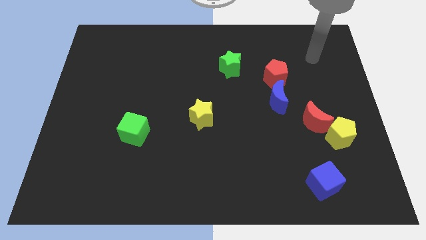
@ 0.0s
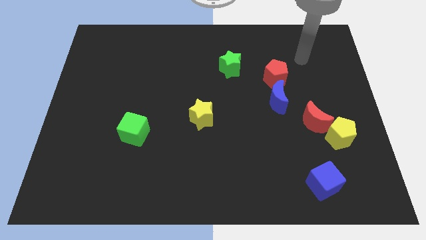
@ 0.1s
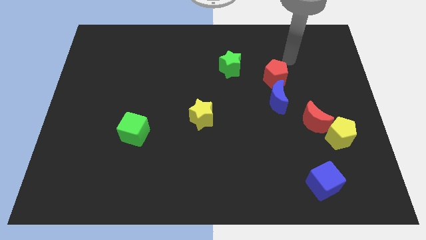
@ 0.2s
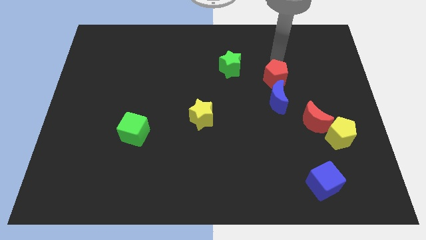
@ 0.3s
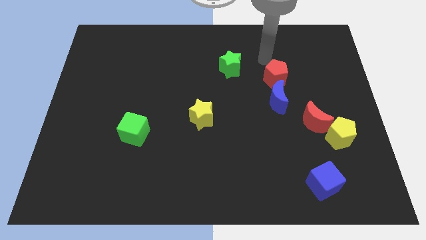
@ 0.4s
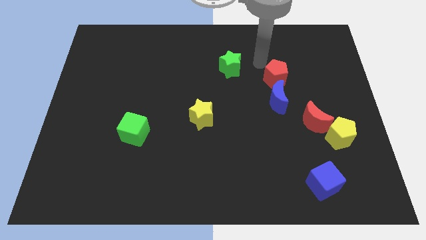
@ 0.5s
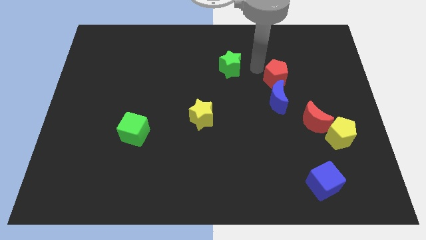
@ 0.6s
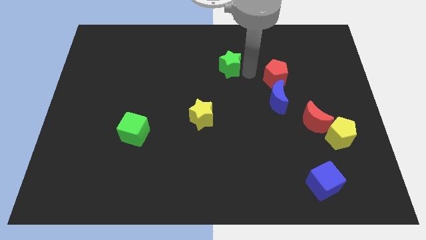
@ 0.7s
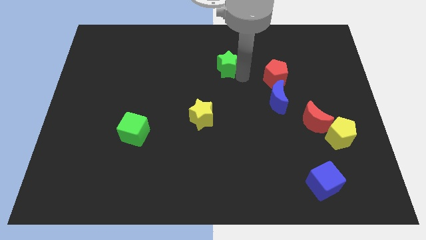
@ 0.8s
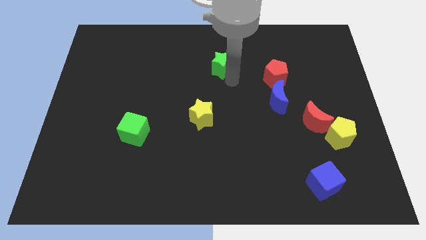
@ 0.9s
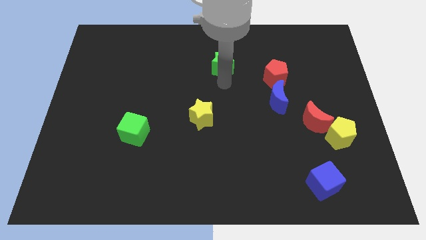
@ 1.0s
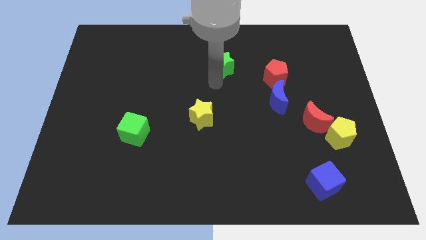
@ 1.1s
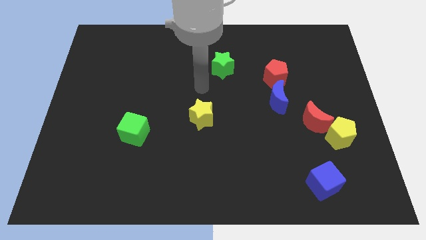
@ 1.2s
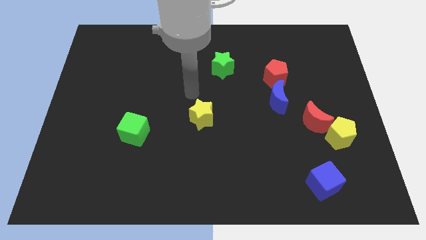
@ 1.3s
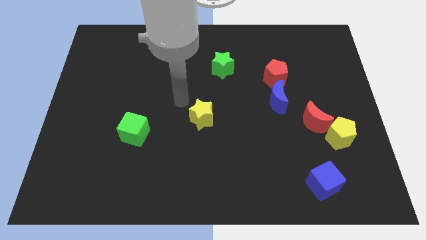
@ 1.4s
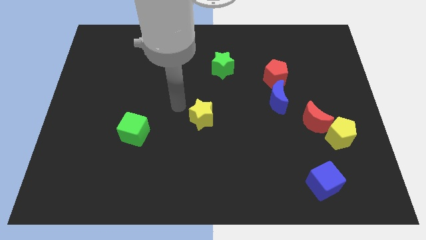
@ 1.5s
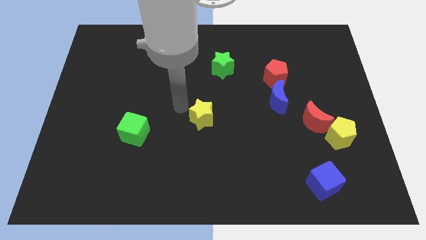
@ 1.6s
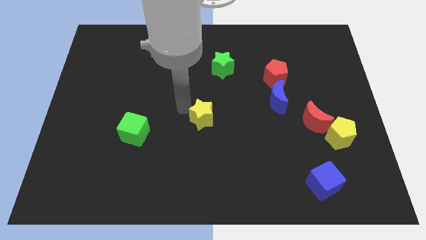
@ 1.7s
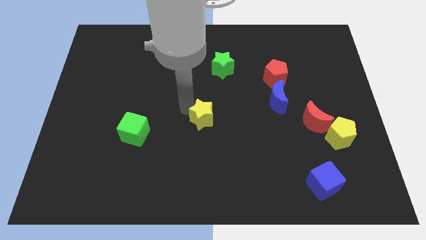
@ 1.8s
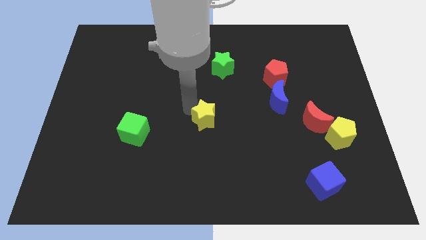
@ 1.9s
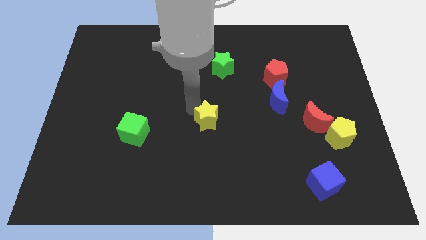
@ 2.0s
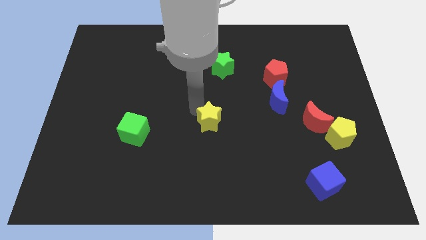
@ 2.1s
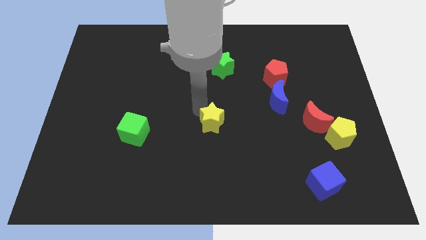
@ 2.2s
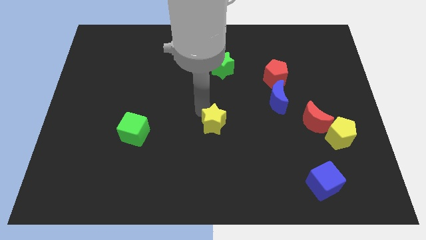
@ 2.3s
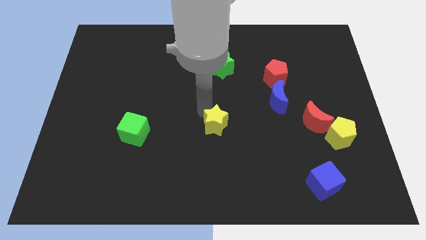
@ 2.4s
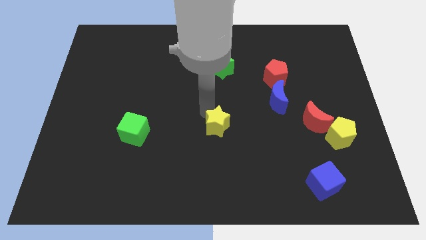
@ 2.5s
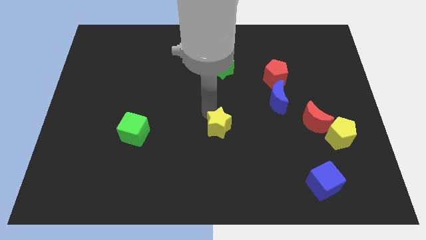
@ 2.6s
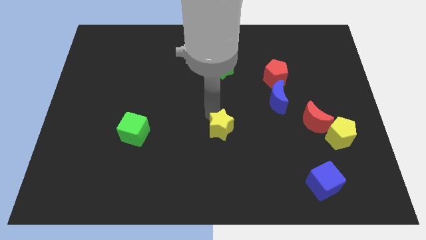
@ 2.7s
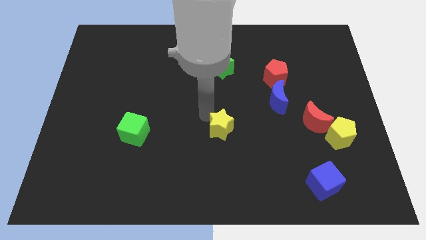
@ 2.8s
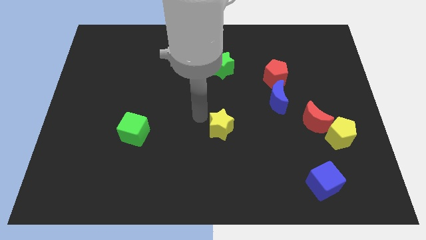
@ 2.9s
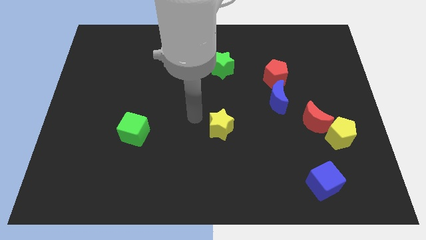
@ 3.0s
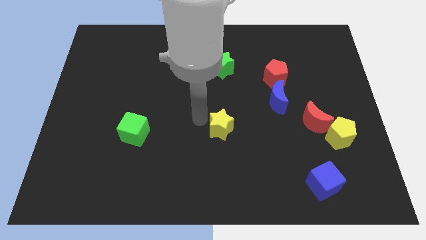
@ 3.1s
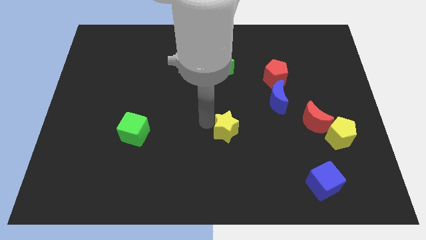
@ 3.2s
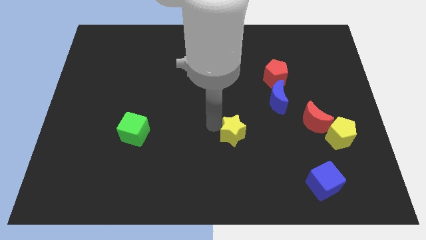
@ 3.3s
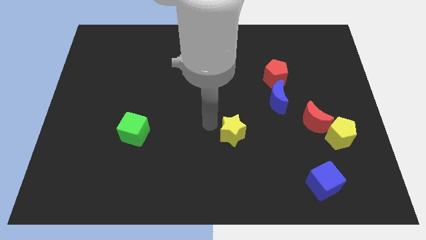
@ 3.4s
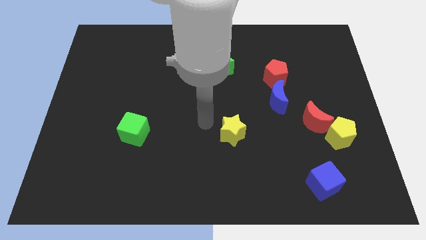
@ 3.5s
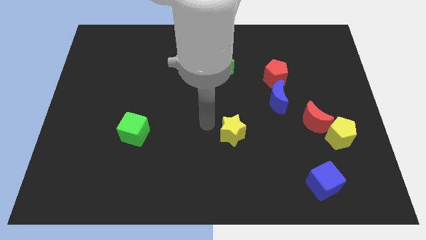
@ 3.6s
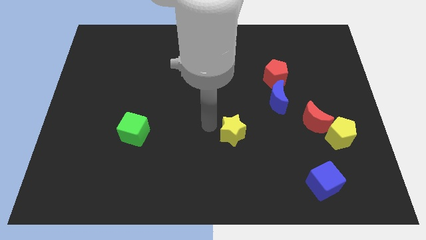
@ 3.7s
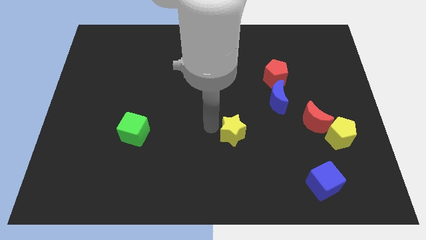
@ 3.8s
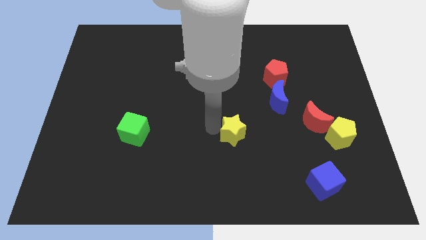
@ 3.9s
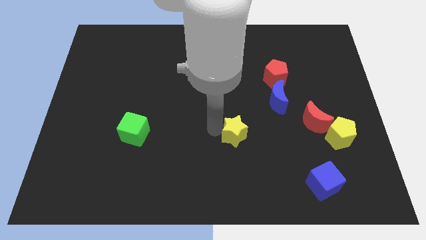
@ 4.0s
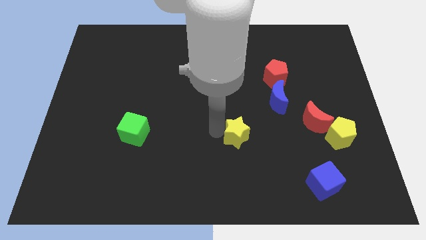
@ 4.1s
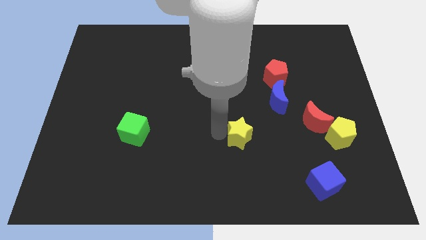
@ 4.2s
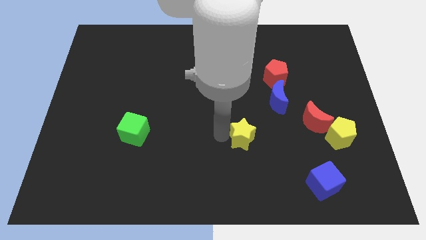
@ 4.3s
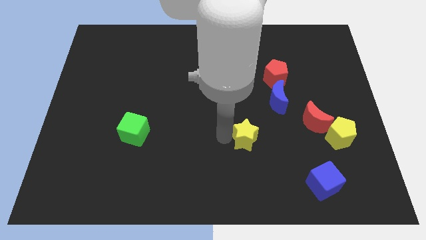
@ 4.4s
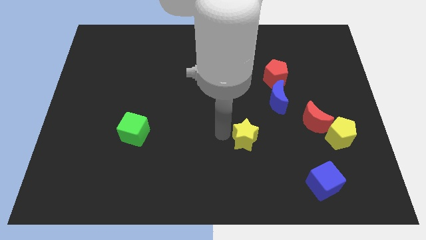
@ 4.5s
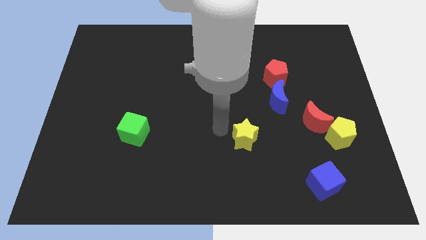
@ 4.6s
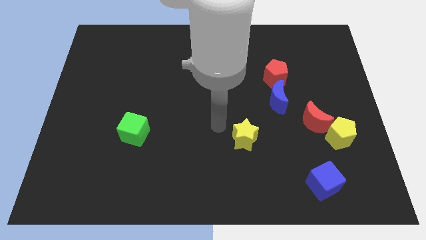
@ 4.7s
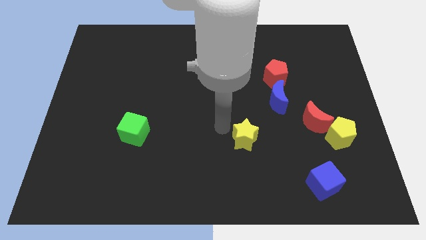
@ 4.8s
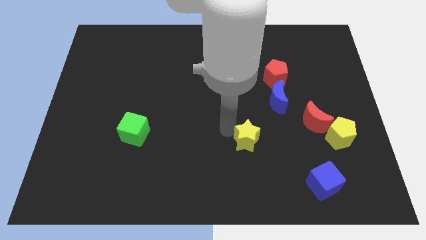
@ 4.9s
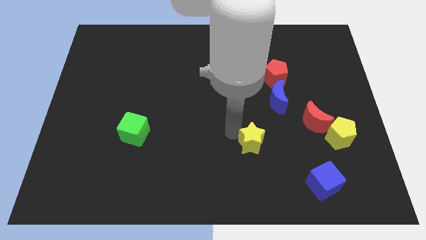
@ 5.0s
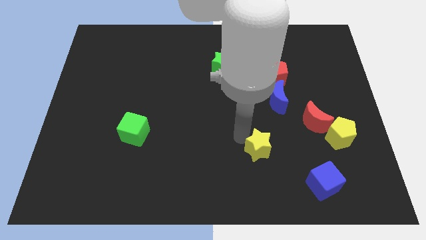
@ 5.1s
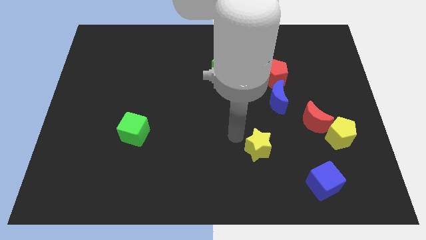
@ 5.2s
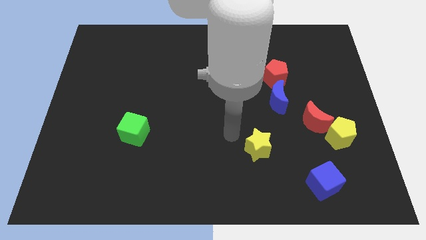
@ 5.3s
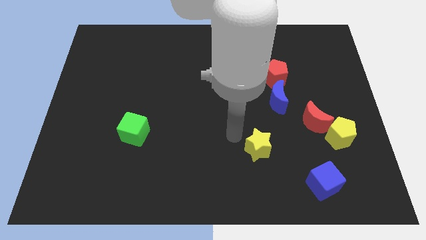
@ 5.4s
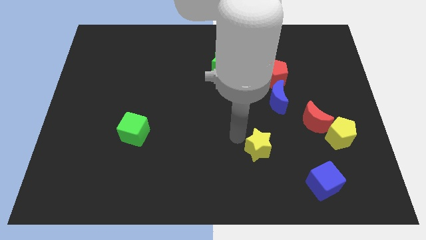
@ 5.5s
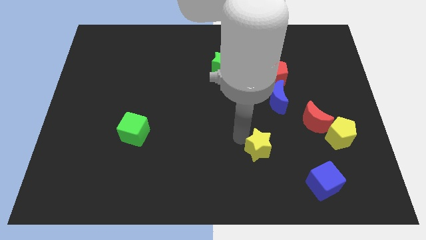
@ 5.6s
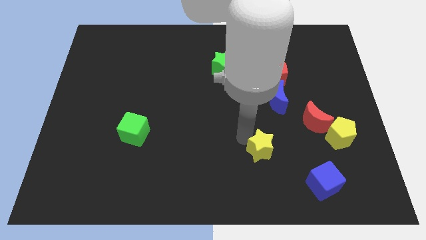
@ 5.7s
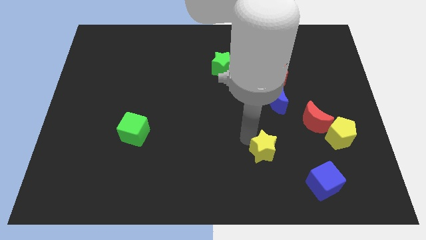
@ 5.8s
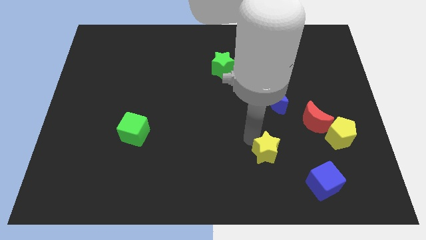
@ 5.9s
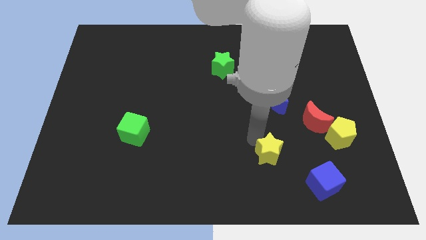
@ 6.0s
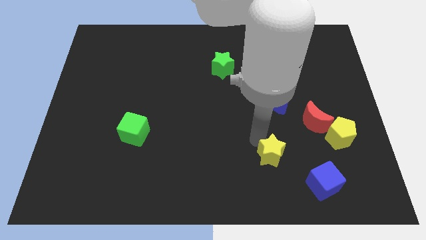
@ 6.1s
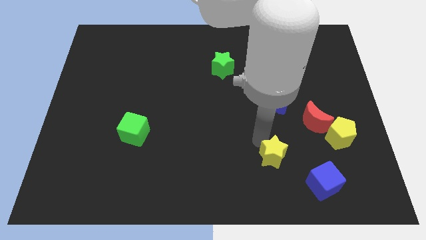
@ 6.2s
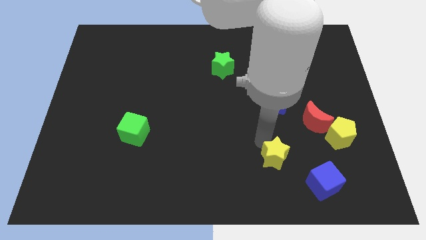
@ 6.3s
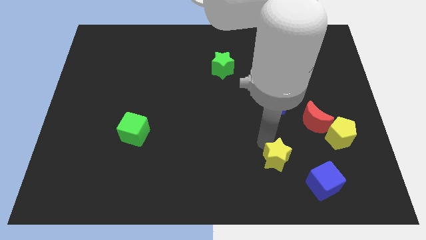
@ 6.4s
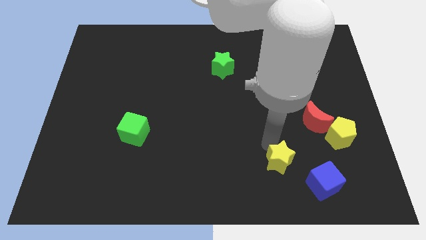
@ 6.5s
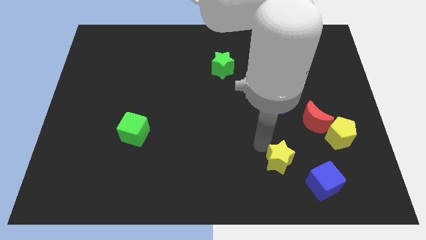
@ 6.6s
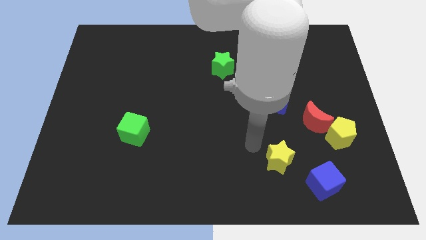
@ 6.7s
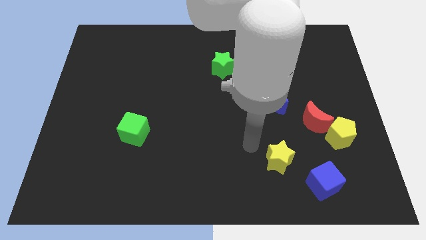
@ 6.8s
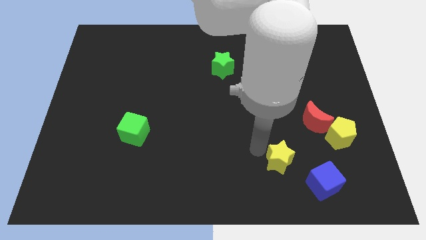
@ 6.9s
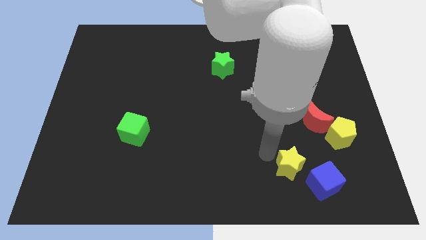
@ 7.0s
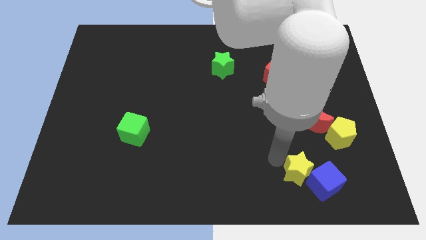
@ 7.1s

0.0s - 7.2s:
slide the yellow star to the blue cube
